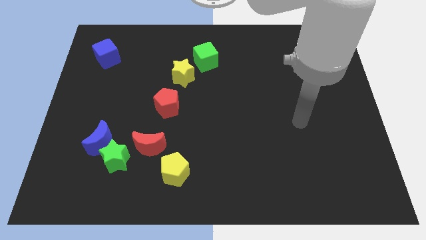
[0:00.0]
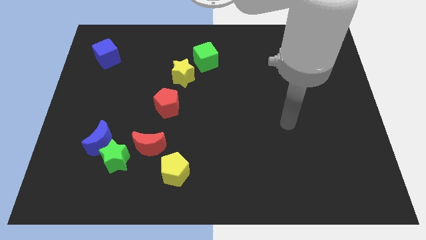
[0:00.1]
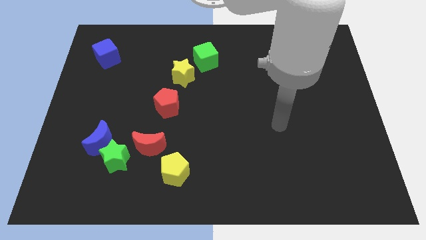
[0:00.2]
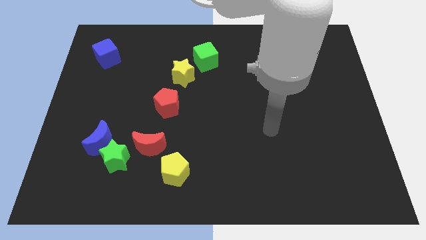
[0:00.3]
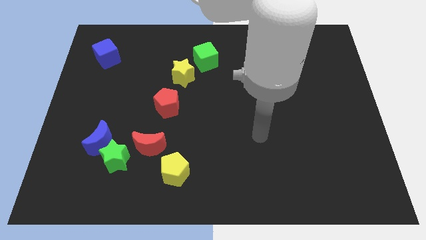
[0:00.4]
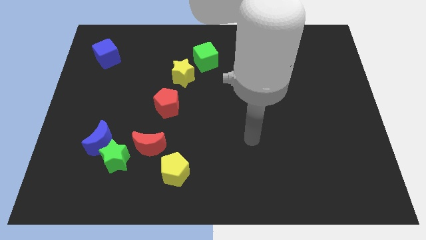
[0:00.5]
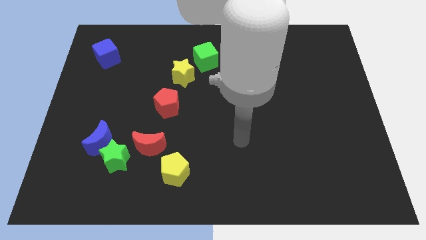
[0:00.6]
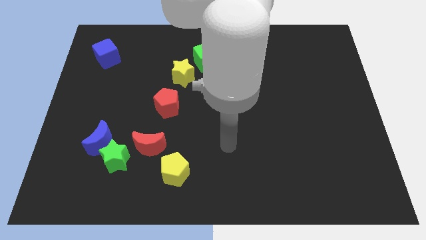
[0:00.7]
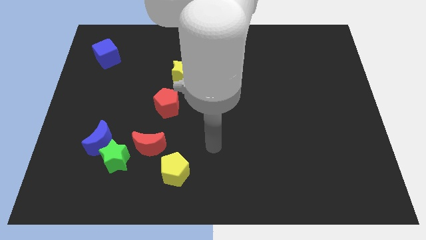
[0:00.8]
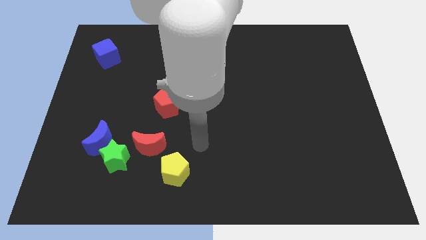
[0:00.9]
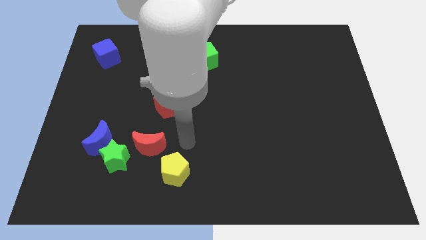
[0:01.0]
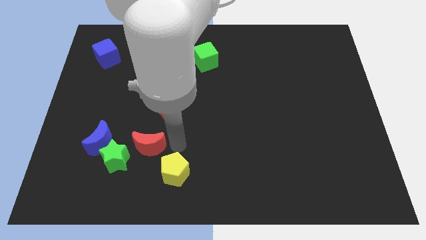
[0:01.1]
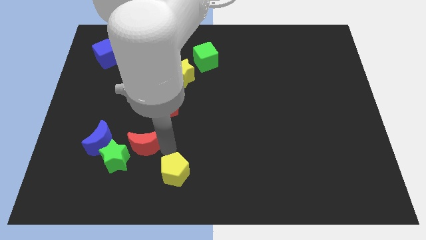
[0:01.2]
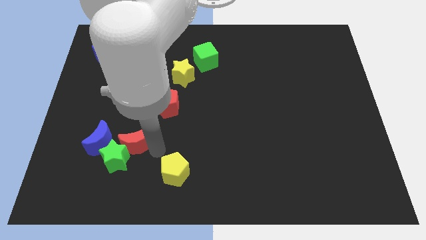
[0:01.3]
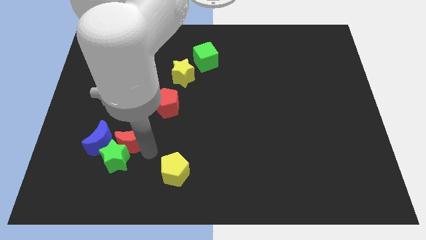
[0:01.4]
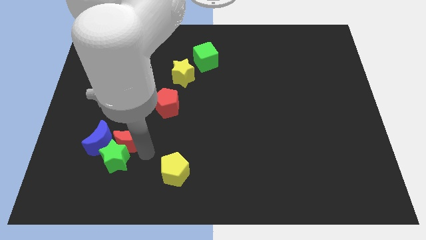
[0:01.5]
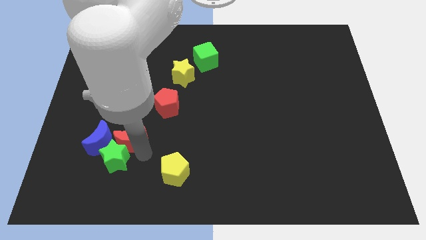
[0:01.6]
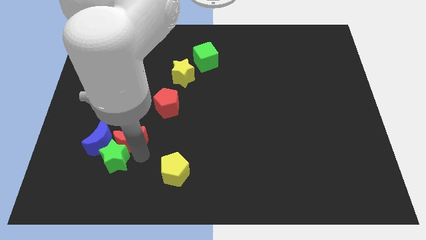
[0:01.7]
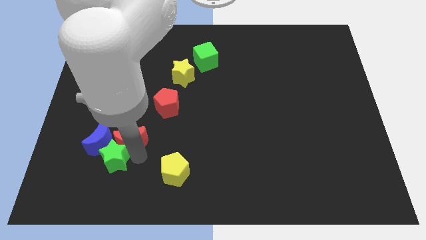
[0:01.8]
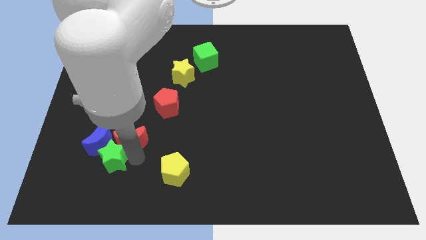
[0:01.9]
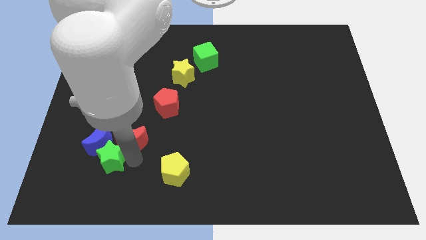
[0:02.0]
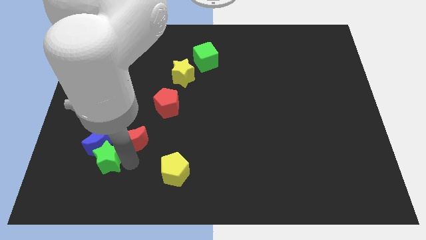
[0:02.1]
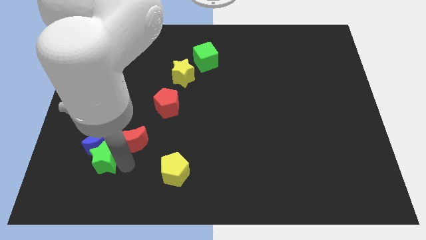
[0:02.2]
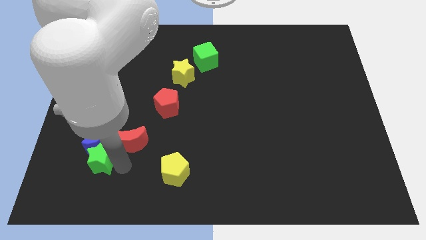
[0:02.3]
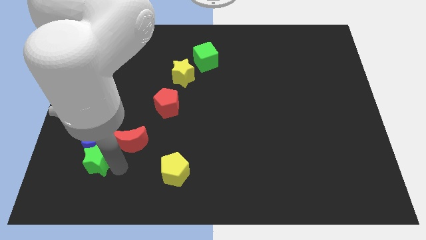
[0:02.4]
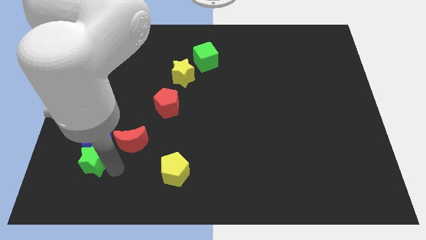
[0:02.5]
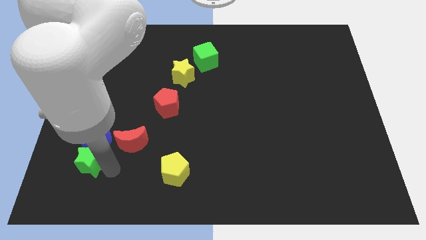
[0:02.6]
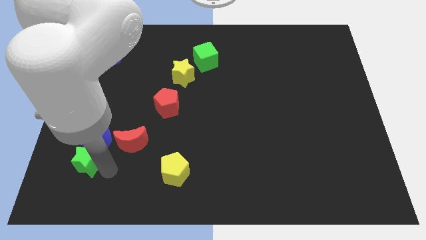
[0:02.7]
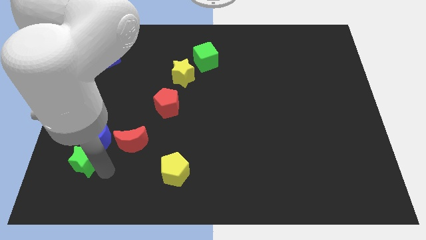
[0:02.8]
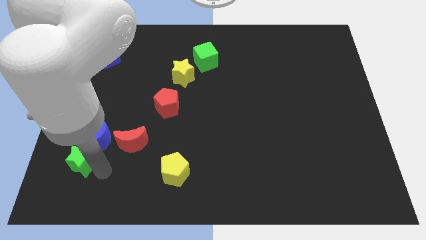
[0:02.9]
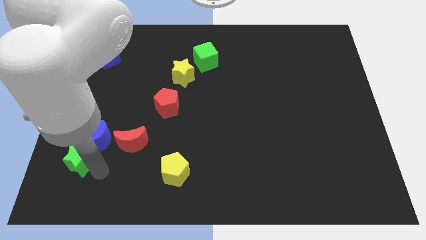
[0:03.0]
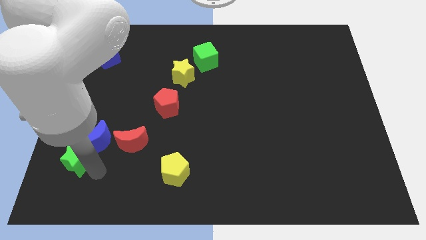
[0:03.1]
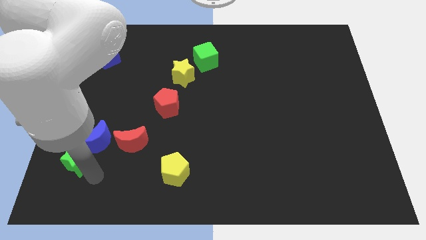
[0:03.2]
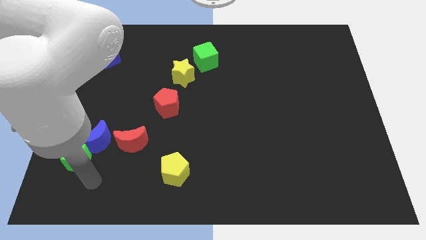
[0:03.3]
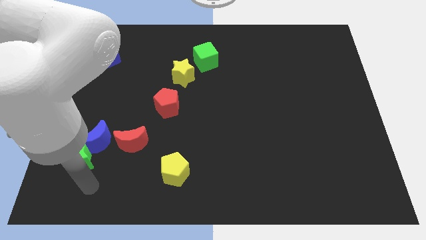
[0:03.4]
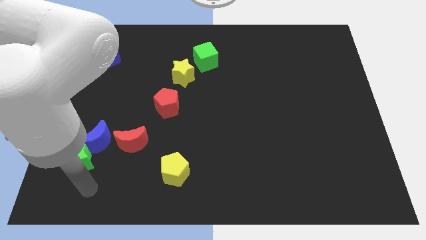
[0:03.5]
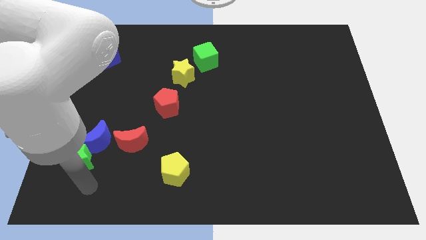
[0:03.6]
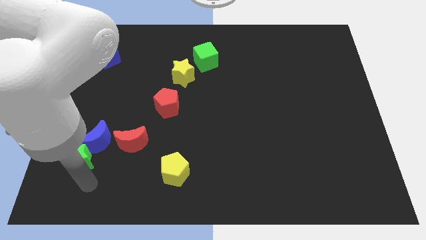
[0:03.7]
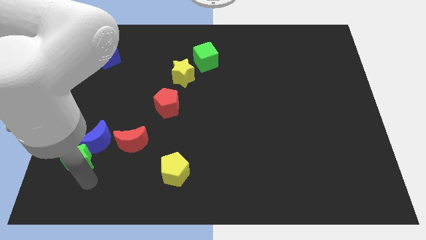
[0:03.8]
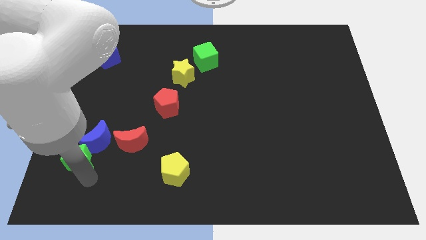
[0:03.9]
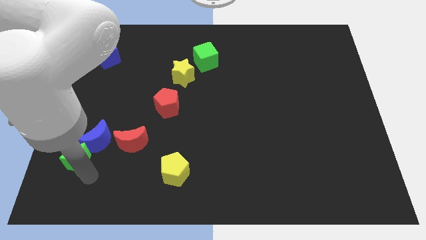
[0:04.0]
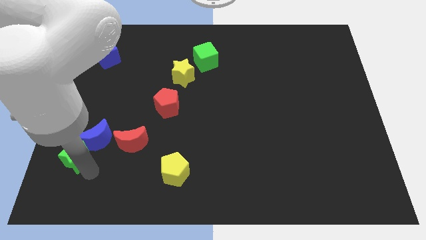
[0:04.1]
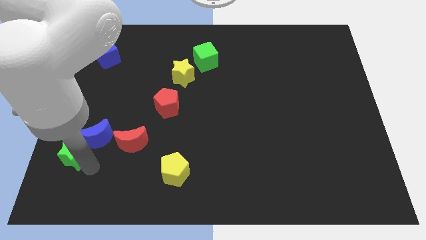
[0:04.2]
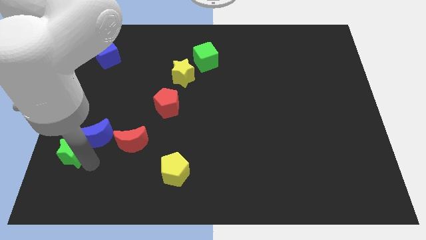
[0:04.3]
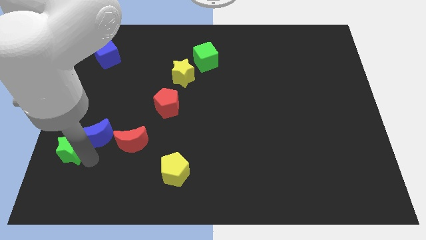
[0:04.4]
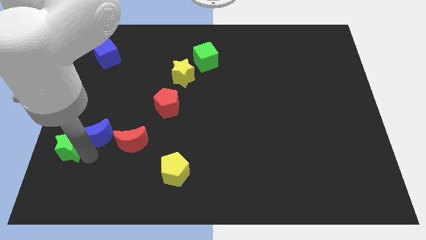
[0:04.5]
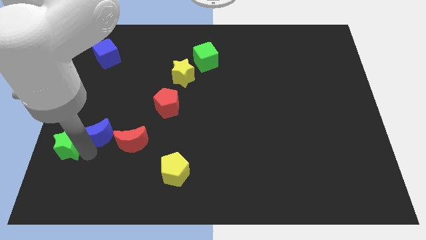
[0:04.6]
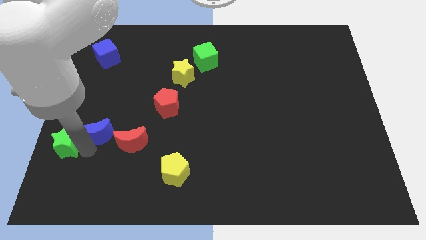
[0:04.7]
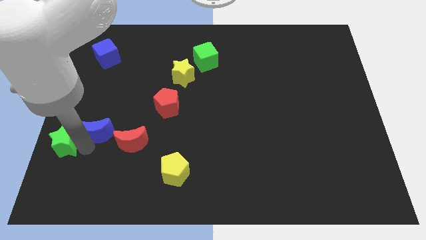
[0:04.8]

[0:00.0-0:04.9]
move the green star to the left side
